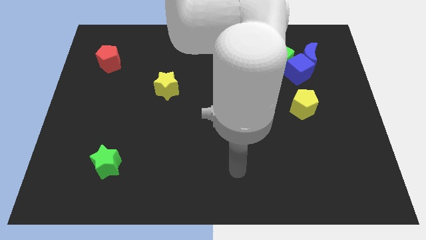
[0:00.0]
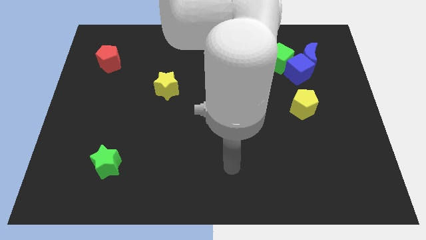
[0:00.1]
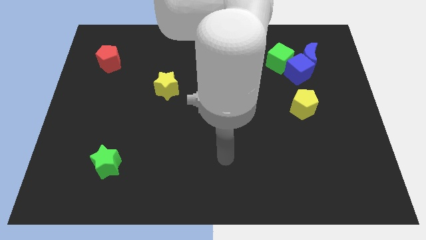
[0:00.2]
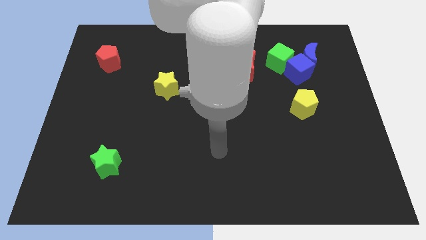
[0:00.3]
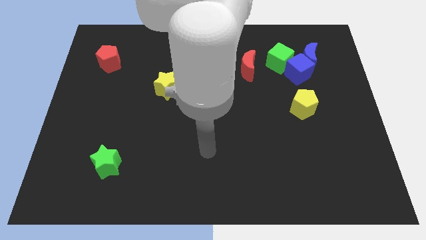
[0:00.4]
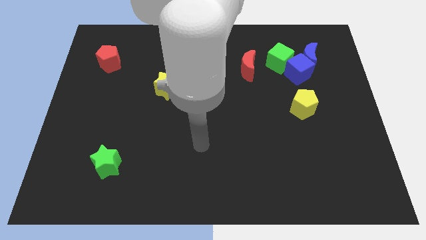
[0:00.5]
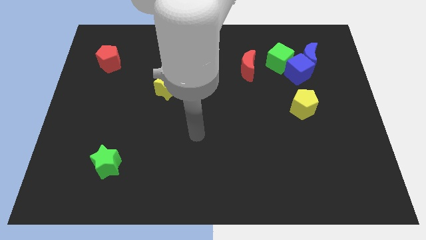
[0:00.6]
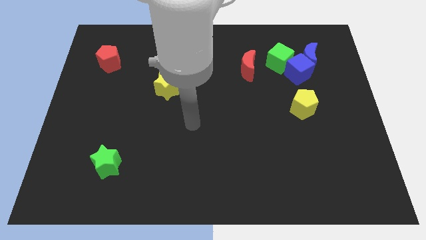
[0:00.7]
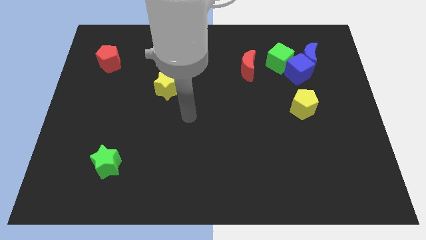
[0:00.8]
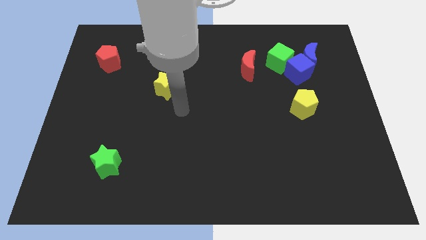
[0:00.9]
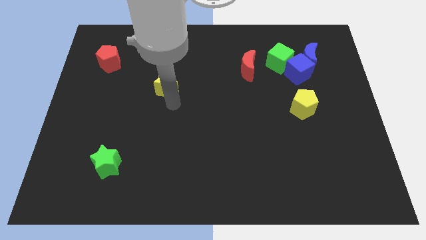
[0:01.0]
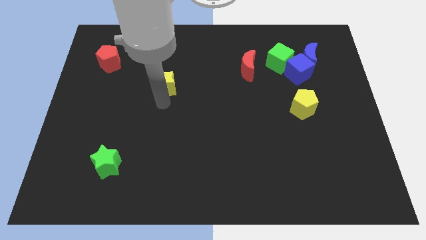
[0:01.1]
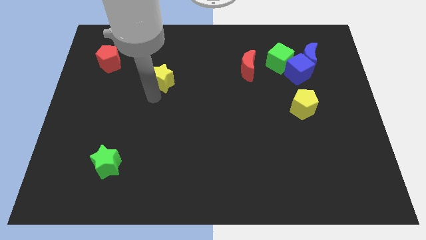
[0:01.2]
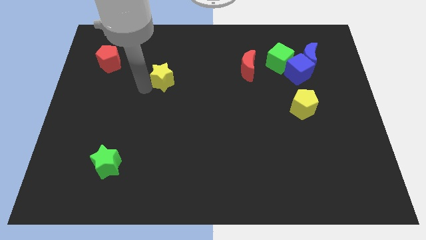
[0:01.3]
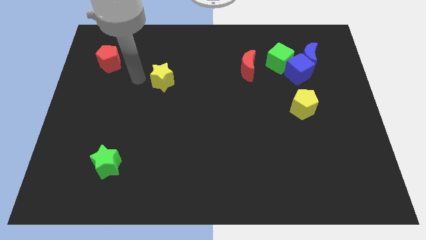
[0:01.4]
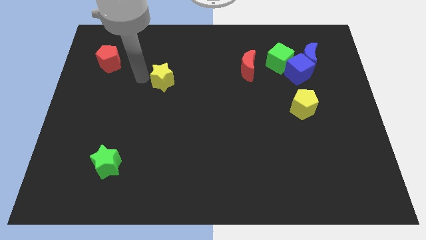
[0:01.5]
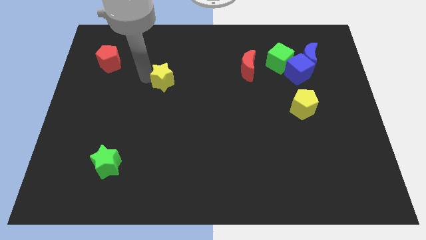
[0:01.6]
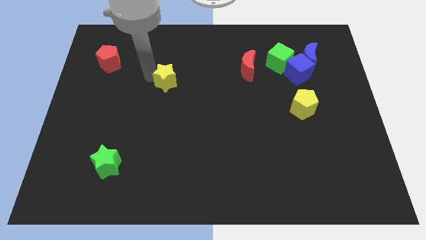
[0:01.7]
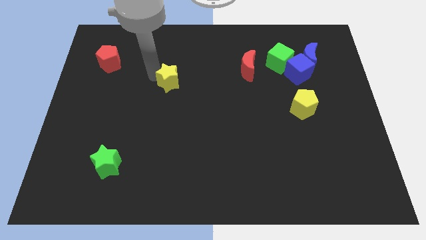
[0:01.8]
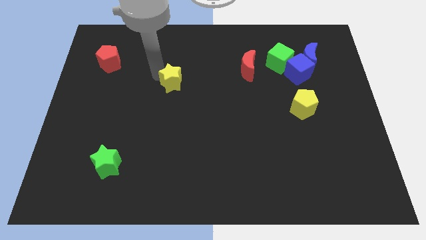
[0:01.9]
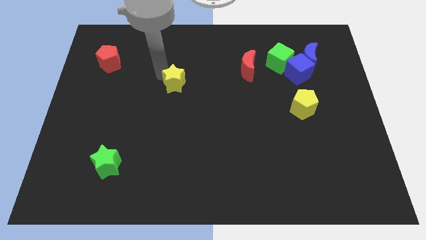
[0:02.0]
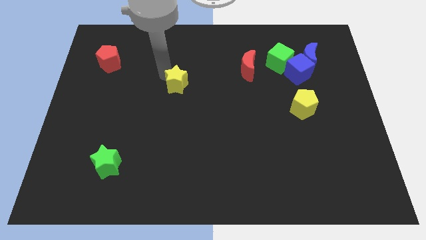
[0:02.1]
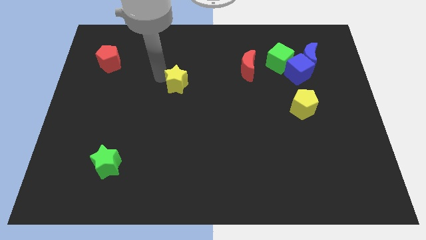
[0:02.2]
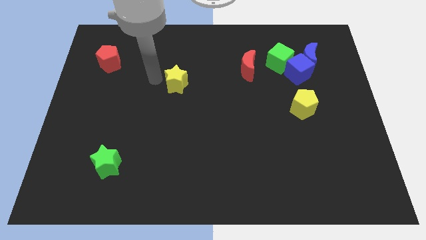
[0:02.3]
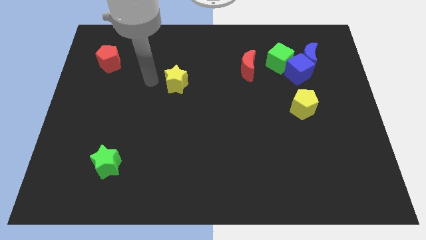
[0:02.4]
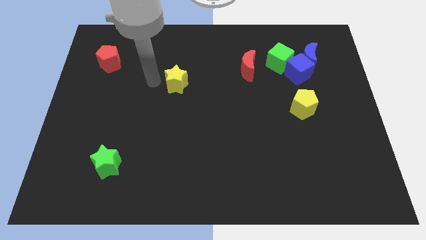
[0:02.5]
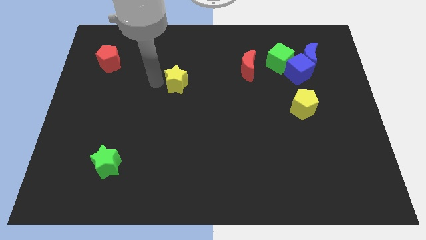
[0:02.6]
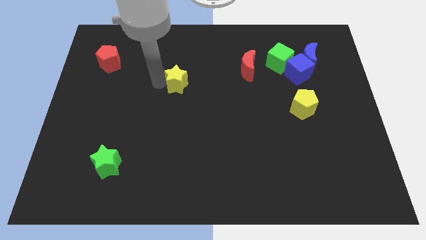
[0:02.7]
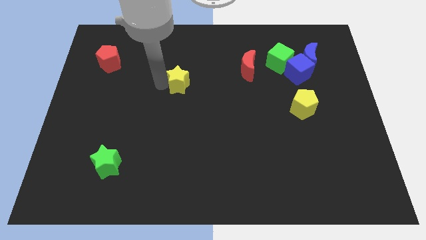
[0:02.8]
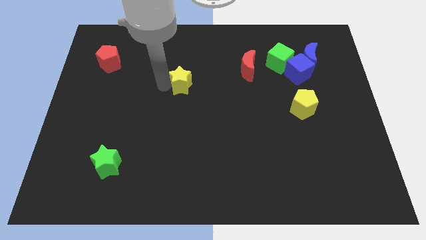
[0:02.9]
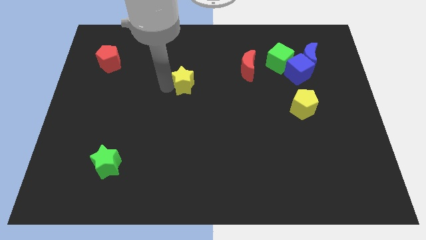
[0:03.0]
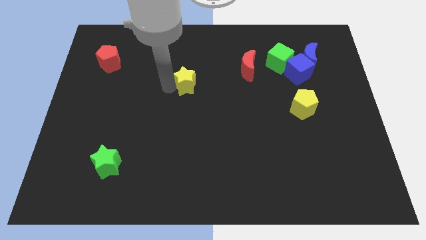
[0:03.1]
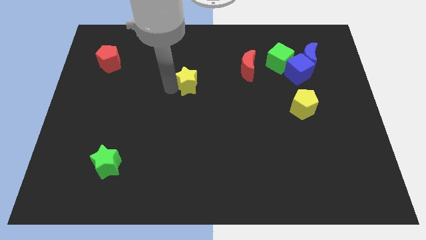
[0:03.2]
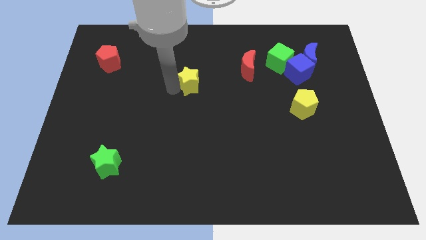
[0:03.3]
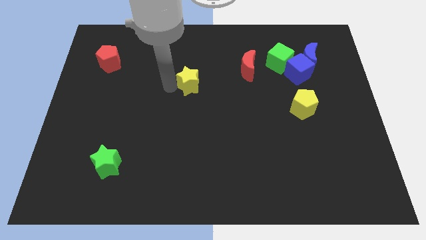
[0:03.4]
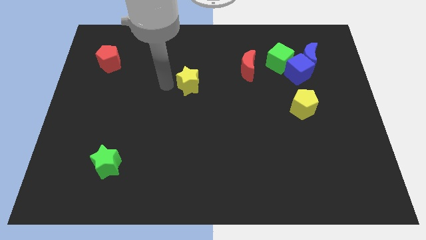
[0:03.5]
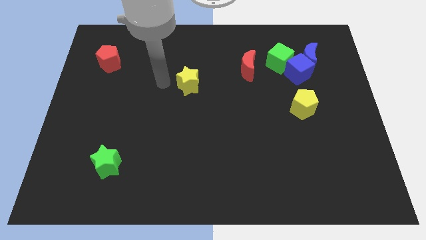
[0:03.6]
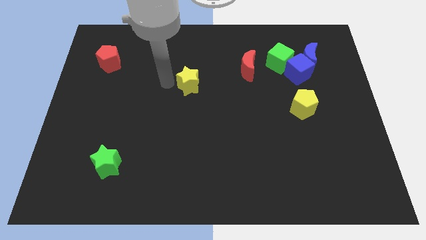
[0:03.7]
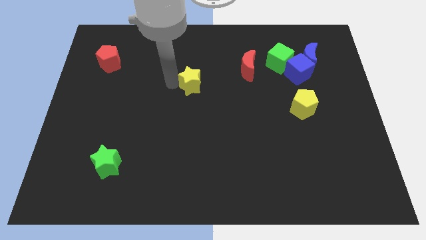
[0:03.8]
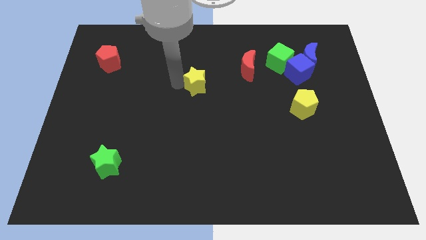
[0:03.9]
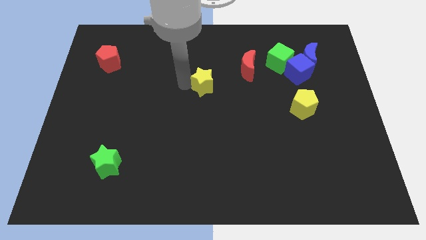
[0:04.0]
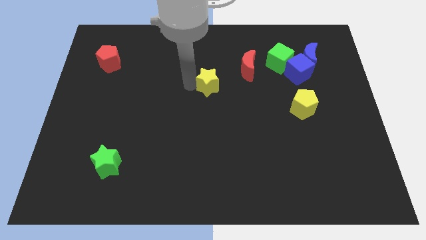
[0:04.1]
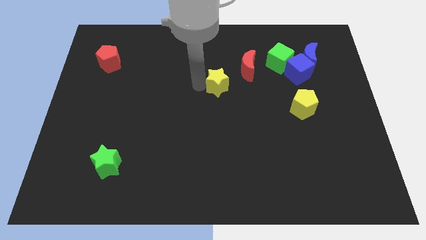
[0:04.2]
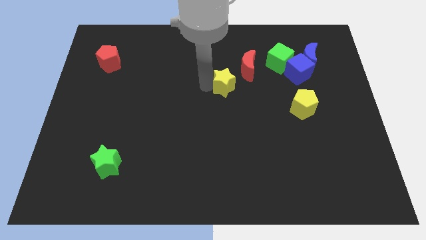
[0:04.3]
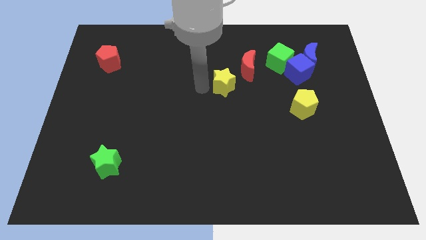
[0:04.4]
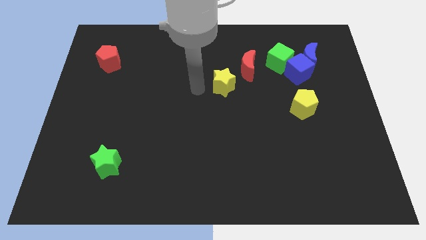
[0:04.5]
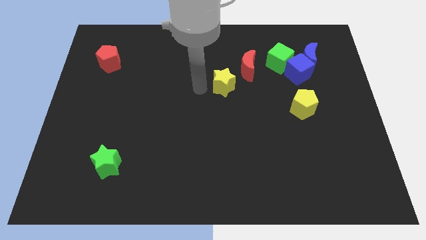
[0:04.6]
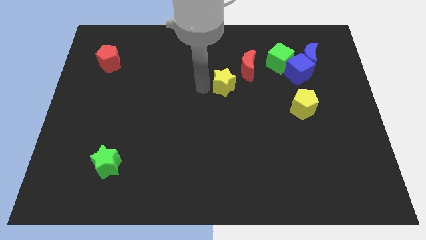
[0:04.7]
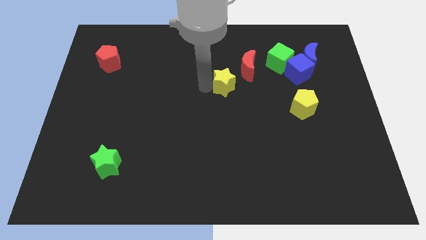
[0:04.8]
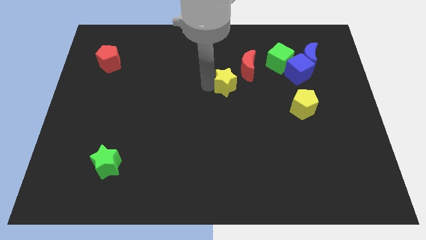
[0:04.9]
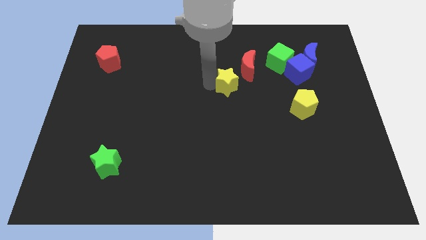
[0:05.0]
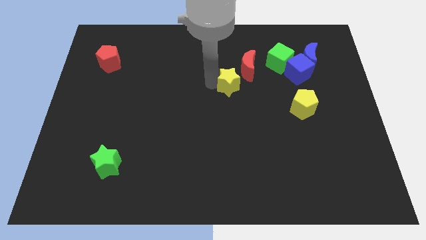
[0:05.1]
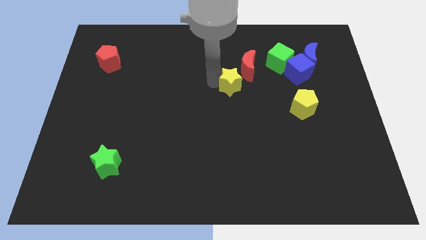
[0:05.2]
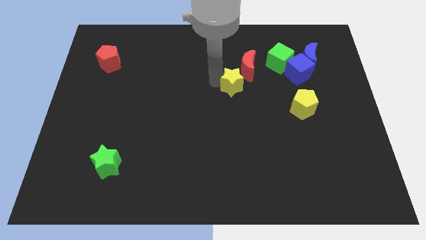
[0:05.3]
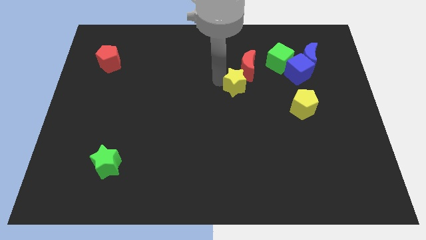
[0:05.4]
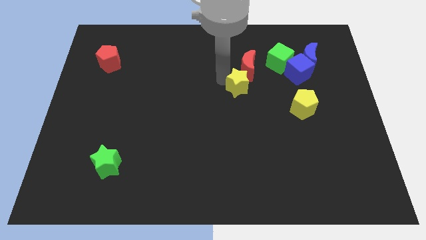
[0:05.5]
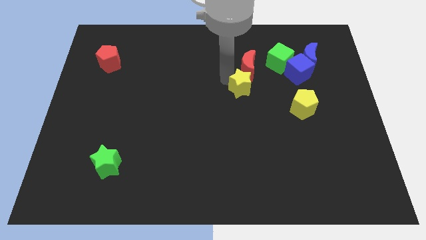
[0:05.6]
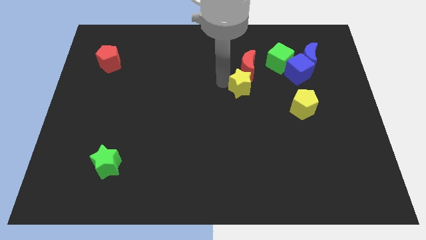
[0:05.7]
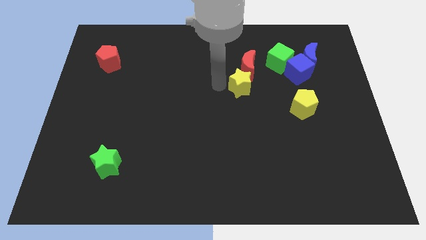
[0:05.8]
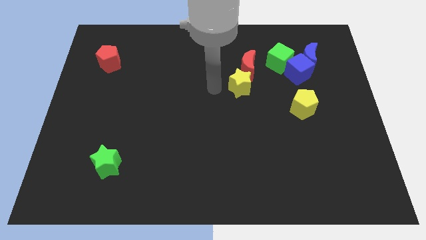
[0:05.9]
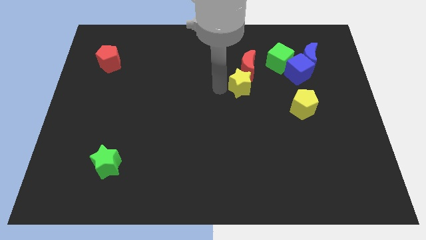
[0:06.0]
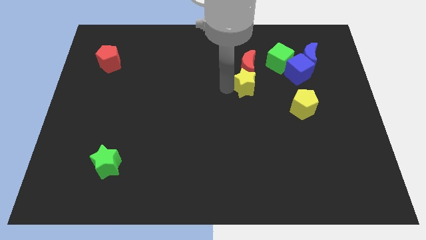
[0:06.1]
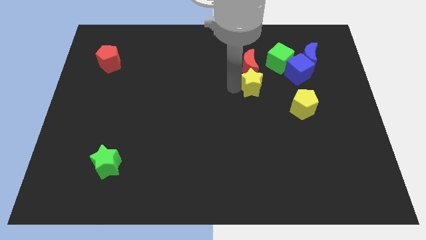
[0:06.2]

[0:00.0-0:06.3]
slide the yellow star to the right

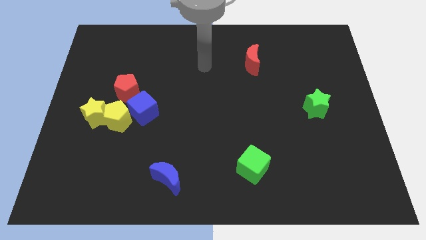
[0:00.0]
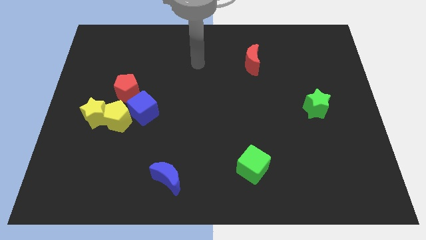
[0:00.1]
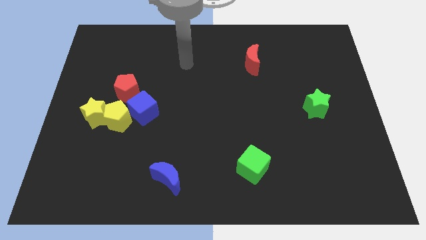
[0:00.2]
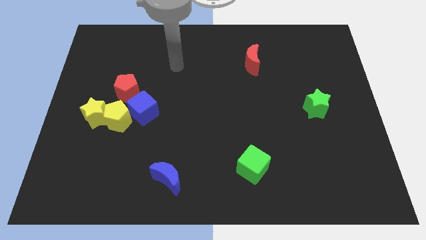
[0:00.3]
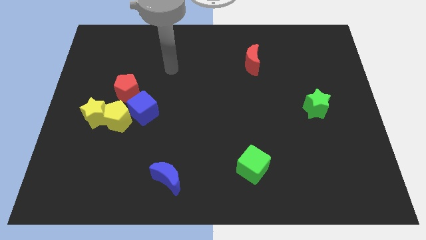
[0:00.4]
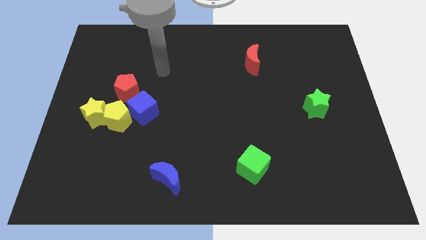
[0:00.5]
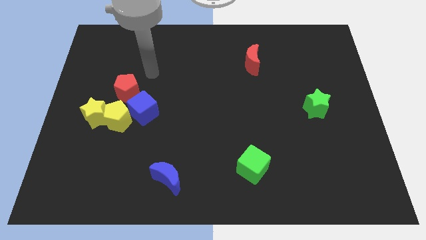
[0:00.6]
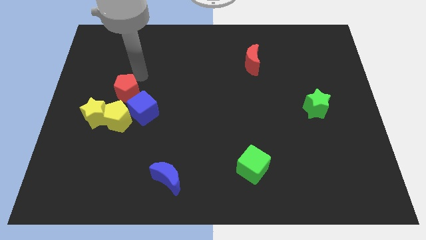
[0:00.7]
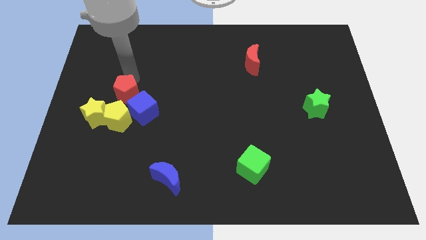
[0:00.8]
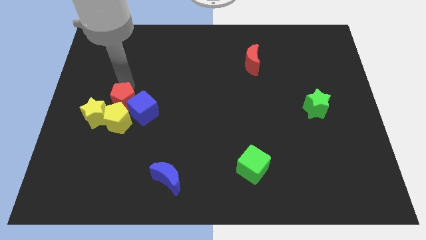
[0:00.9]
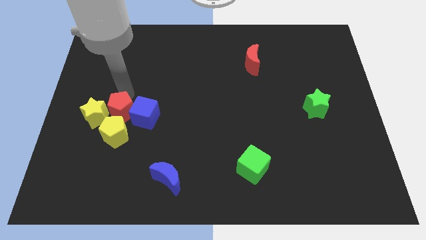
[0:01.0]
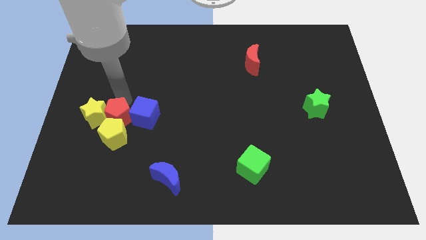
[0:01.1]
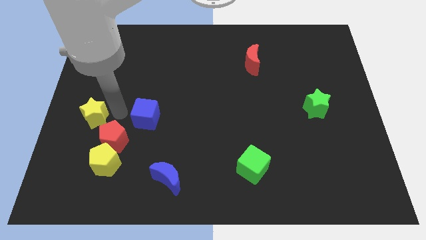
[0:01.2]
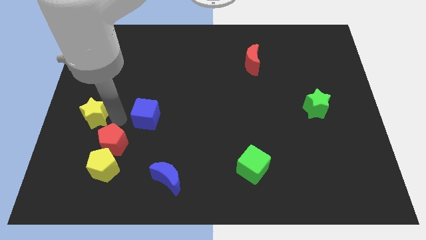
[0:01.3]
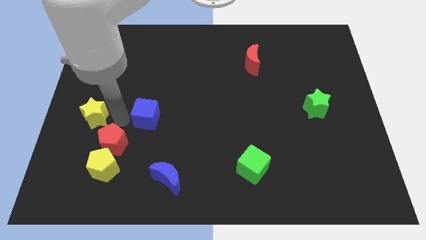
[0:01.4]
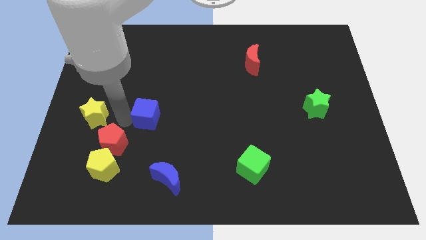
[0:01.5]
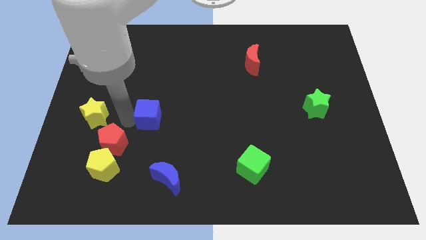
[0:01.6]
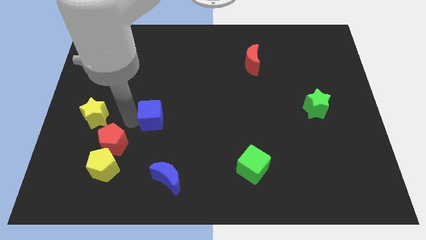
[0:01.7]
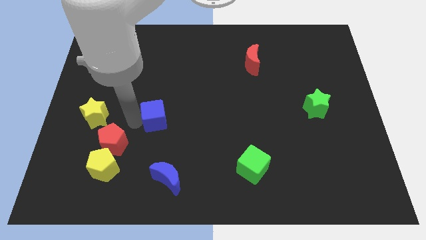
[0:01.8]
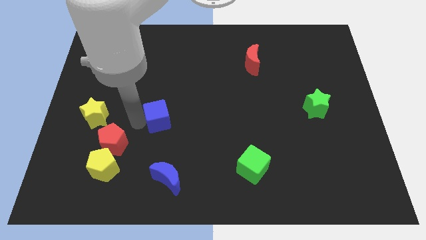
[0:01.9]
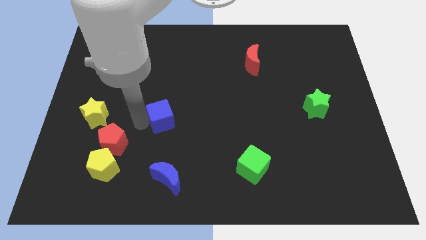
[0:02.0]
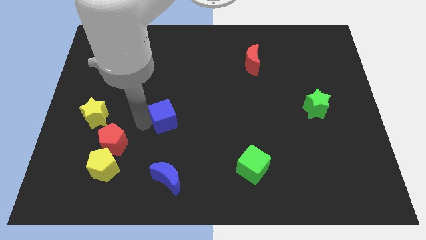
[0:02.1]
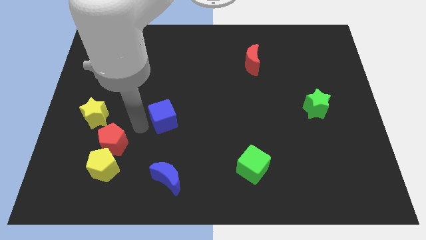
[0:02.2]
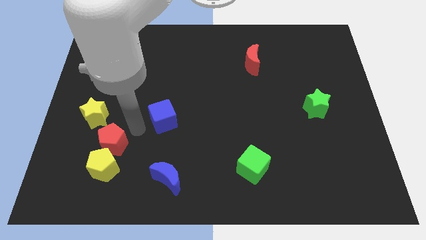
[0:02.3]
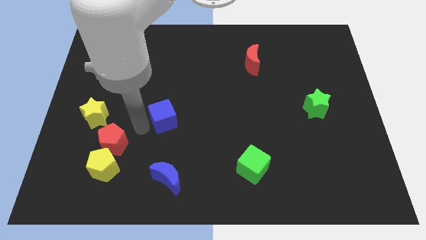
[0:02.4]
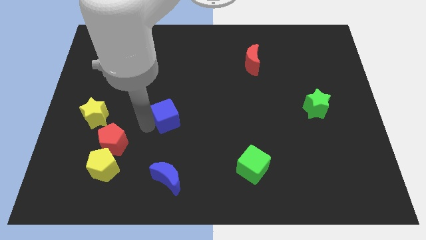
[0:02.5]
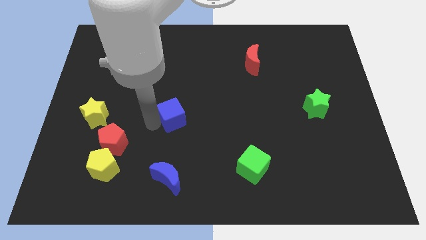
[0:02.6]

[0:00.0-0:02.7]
slide the blue cube to the right somewhat
